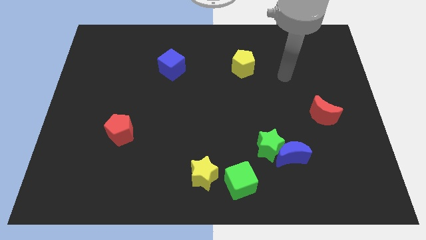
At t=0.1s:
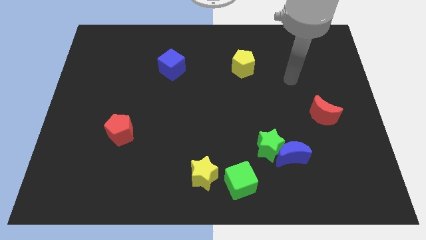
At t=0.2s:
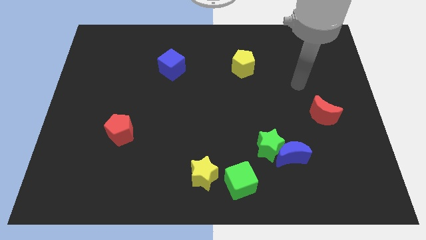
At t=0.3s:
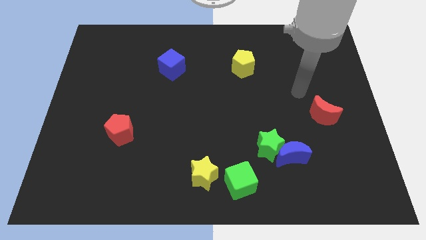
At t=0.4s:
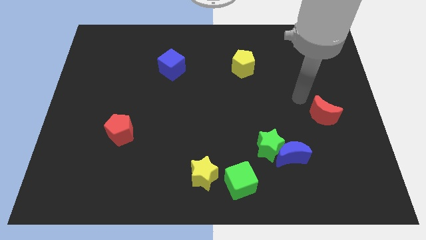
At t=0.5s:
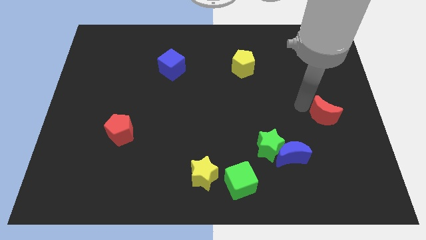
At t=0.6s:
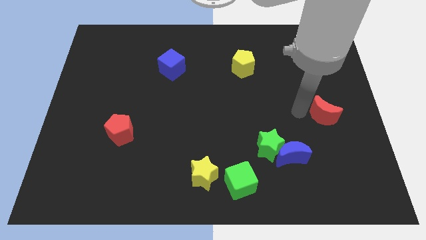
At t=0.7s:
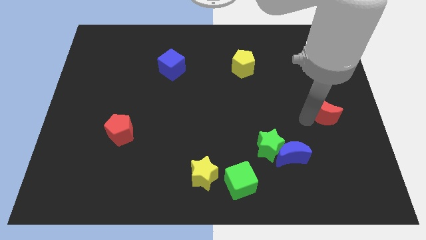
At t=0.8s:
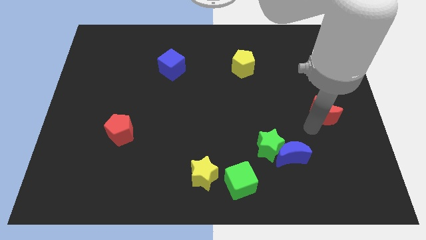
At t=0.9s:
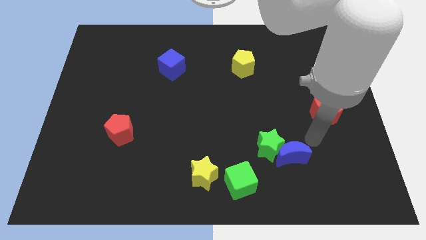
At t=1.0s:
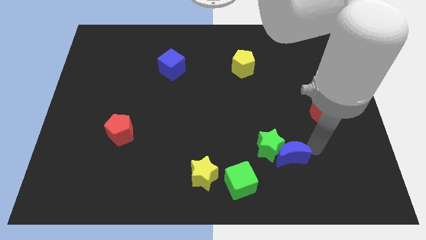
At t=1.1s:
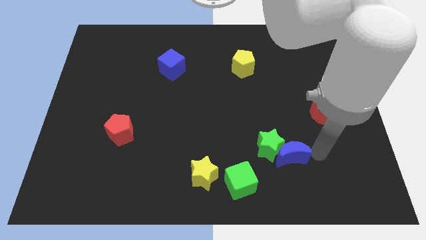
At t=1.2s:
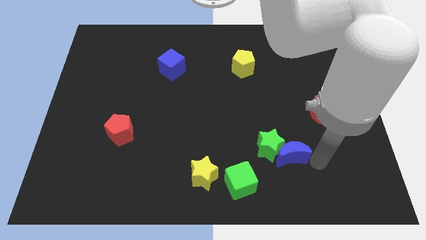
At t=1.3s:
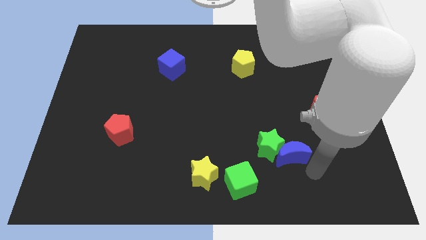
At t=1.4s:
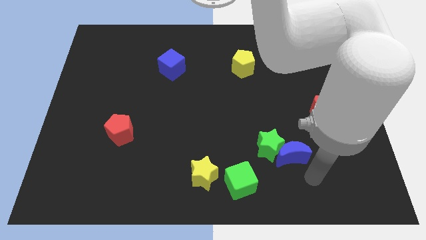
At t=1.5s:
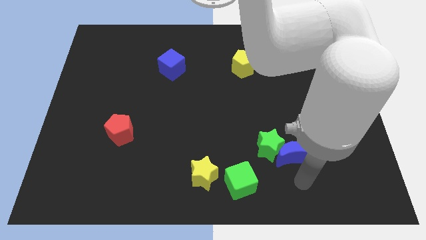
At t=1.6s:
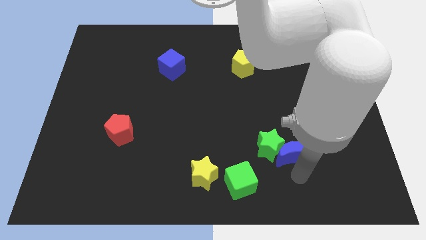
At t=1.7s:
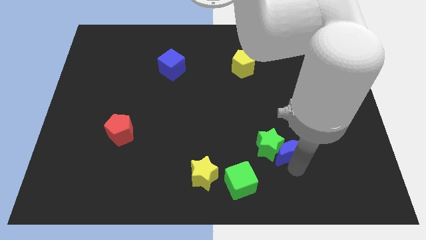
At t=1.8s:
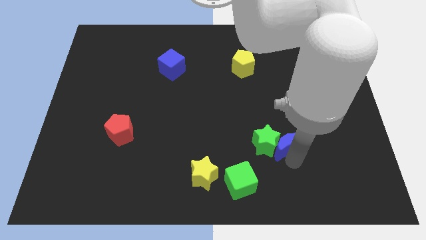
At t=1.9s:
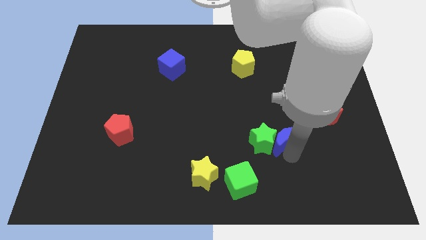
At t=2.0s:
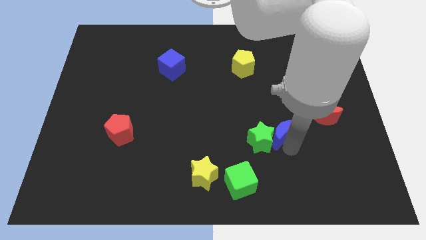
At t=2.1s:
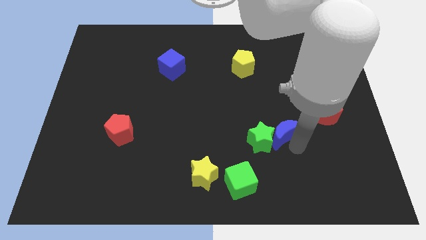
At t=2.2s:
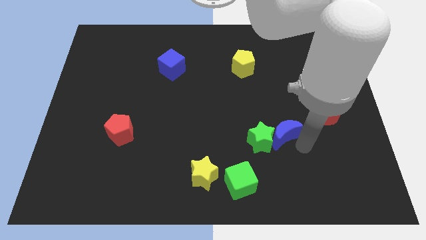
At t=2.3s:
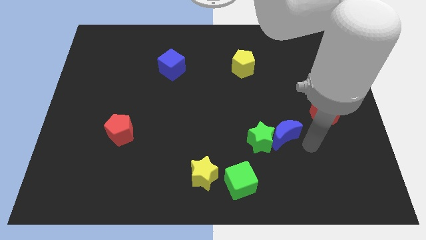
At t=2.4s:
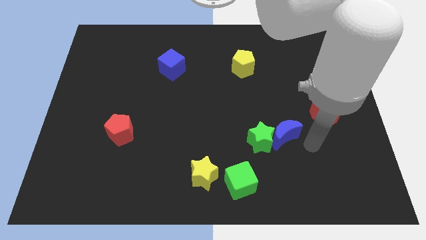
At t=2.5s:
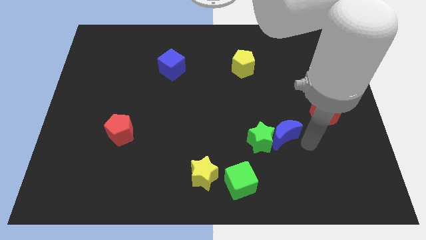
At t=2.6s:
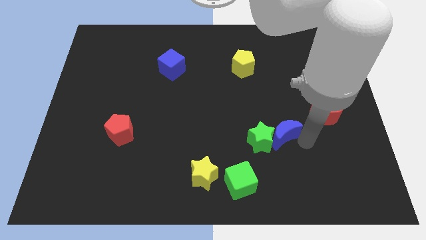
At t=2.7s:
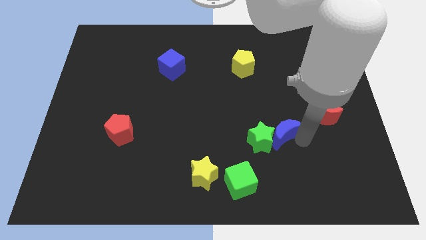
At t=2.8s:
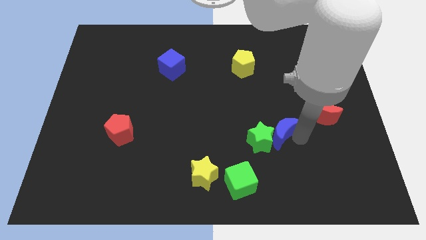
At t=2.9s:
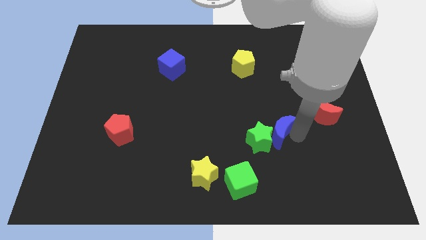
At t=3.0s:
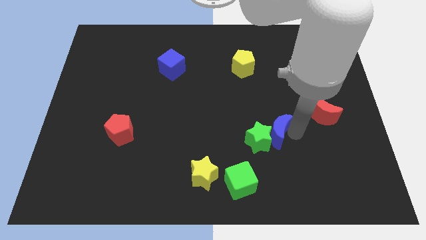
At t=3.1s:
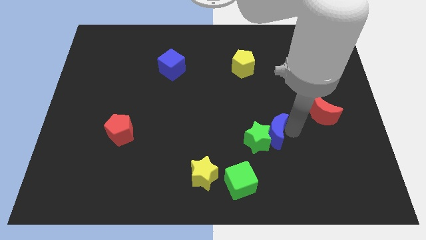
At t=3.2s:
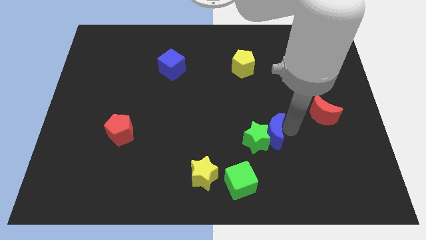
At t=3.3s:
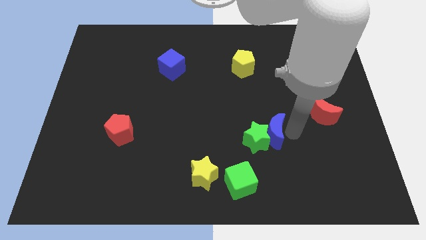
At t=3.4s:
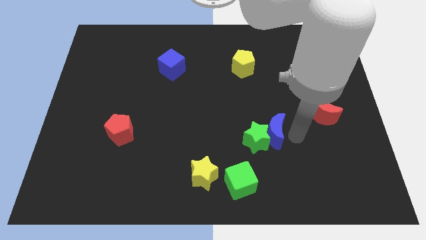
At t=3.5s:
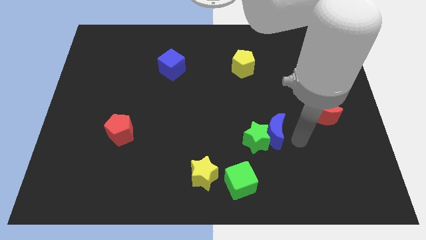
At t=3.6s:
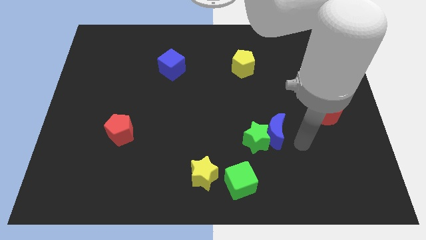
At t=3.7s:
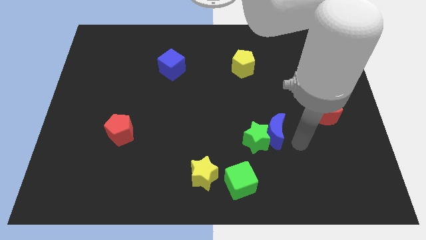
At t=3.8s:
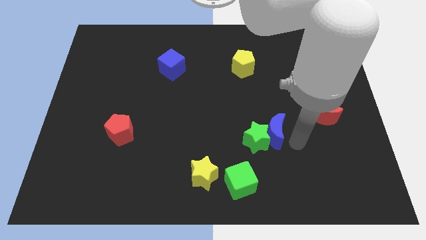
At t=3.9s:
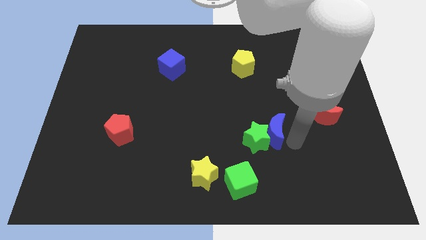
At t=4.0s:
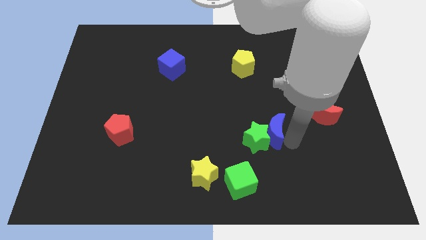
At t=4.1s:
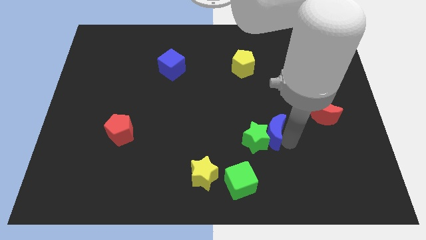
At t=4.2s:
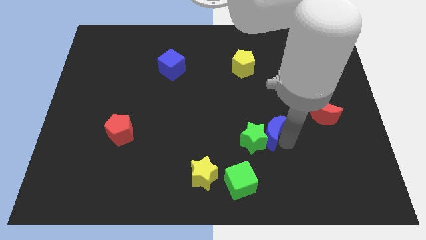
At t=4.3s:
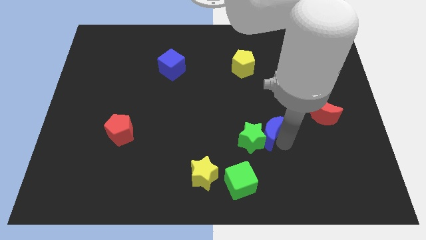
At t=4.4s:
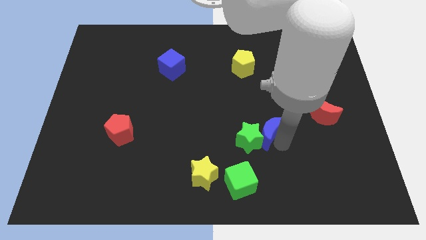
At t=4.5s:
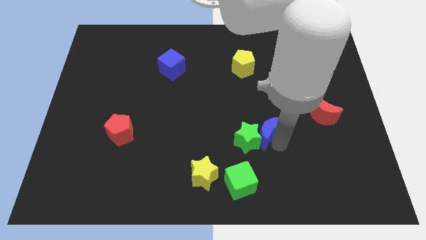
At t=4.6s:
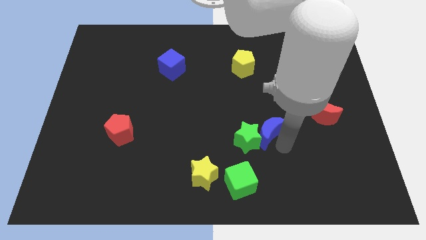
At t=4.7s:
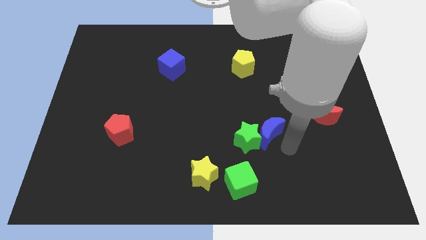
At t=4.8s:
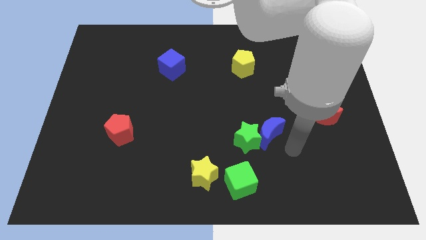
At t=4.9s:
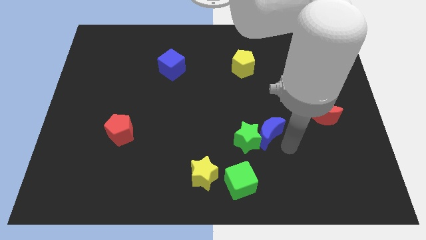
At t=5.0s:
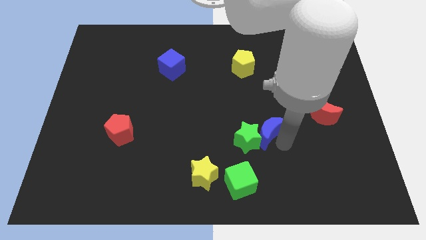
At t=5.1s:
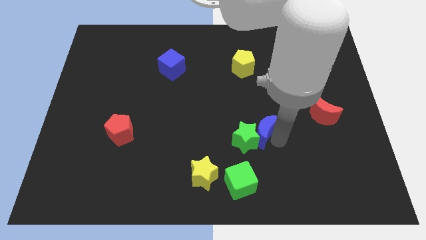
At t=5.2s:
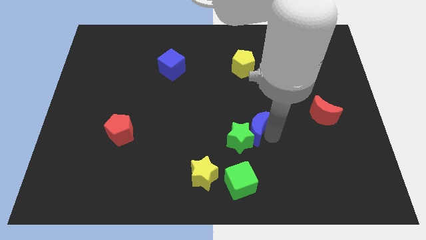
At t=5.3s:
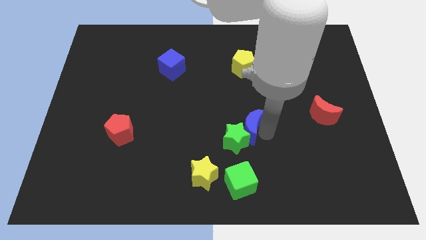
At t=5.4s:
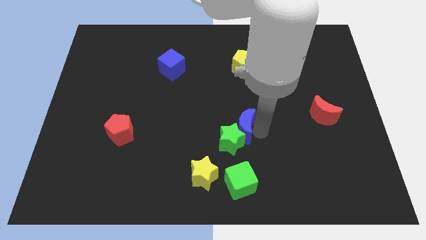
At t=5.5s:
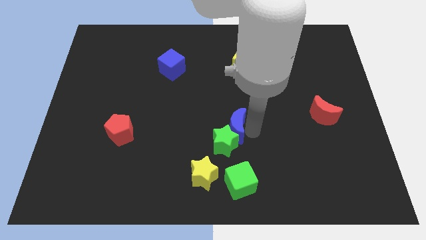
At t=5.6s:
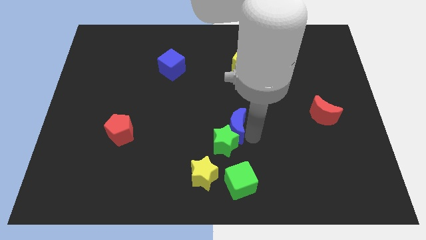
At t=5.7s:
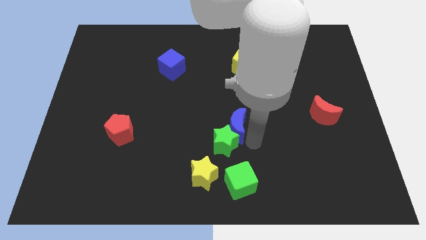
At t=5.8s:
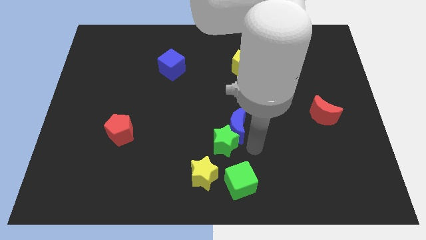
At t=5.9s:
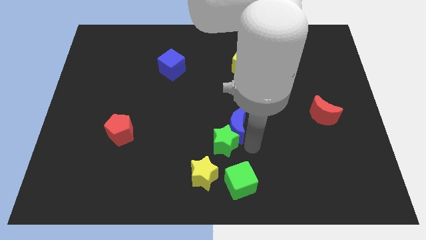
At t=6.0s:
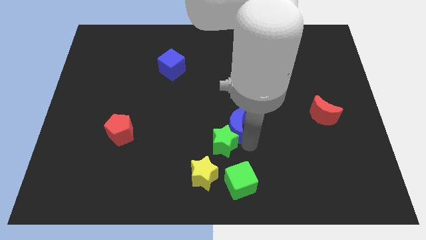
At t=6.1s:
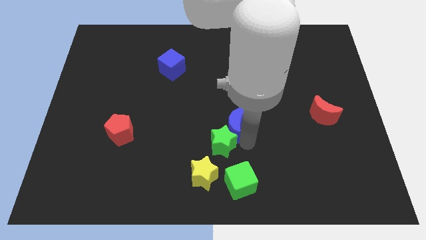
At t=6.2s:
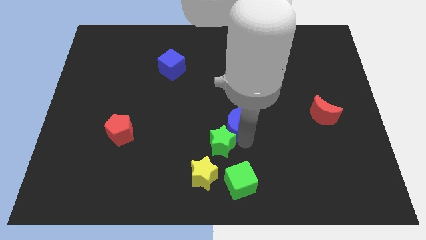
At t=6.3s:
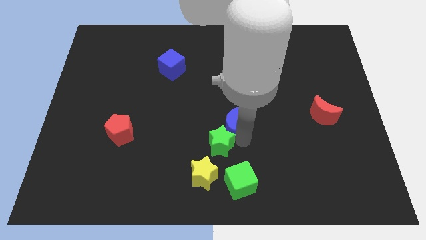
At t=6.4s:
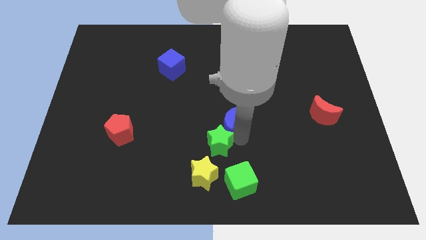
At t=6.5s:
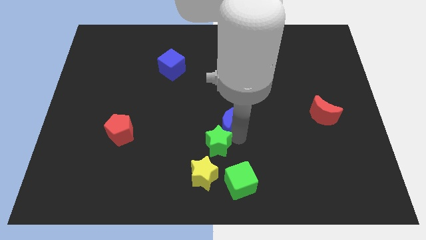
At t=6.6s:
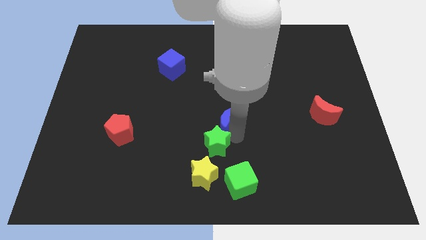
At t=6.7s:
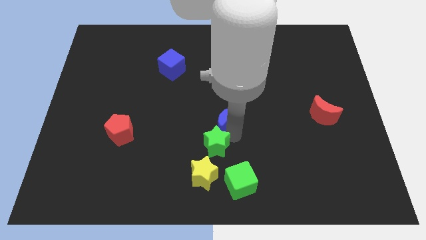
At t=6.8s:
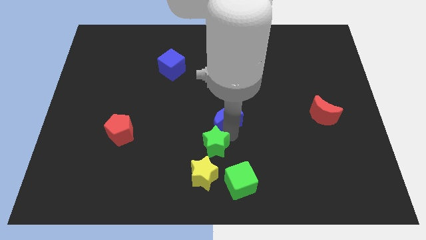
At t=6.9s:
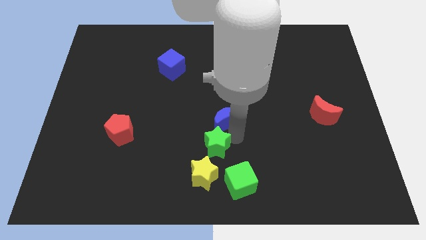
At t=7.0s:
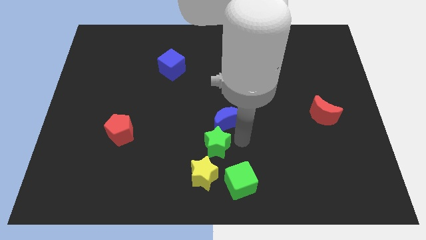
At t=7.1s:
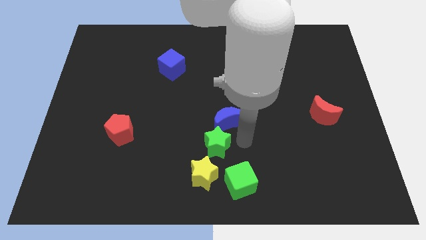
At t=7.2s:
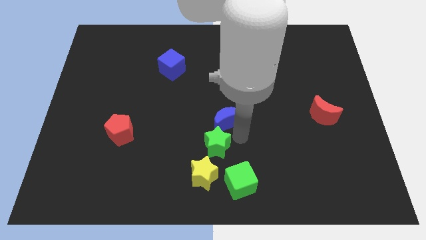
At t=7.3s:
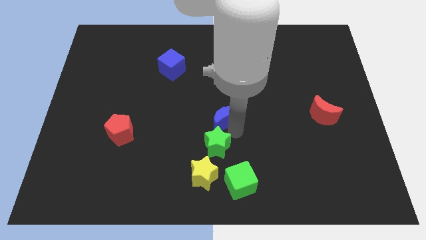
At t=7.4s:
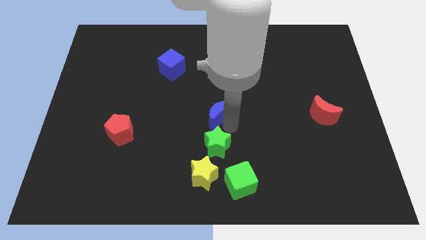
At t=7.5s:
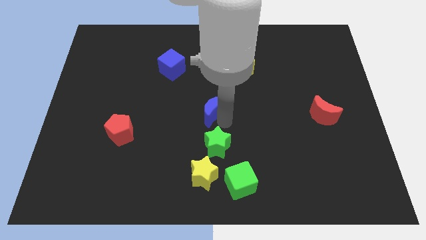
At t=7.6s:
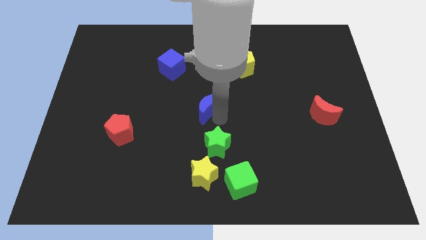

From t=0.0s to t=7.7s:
slide the blue moon up and then to the left

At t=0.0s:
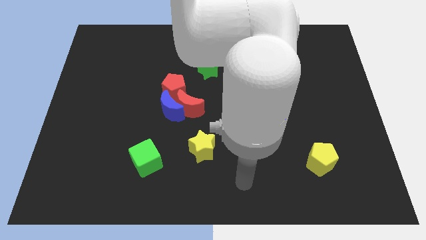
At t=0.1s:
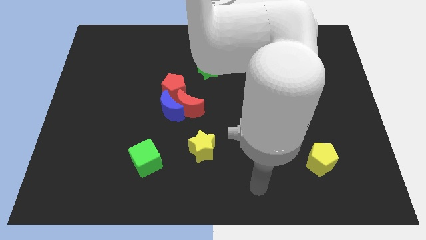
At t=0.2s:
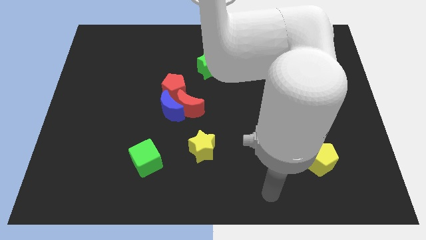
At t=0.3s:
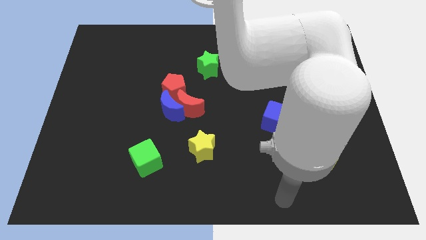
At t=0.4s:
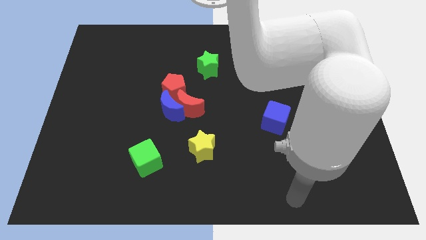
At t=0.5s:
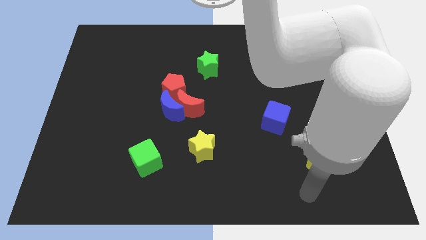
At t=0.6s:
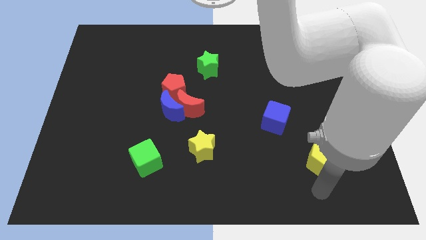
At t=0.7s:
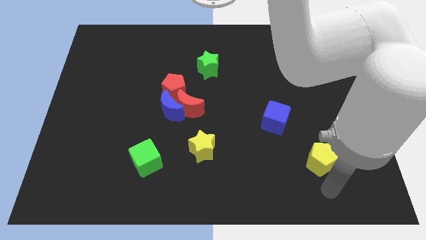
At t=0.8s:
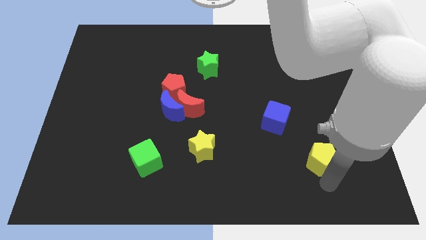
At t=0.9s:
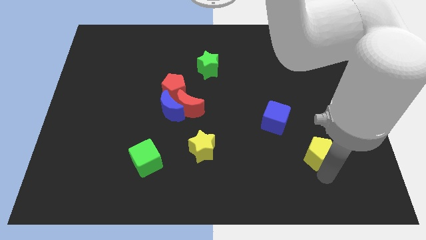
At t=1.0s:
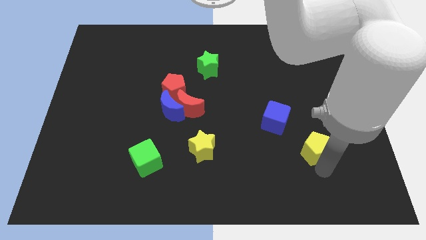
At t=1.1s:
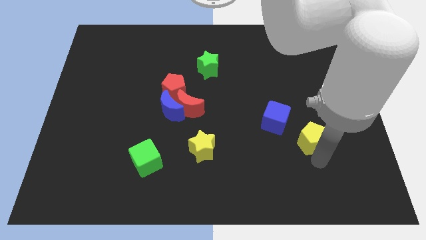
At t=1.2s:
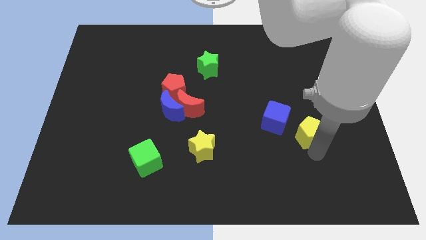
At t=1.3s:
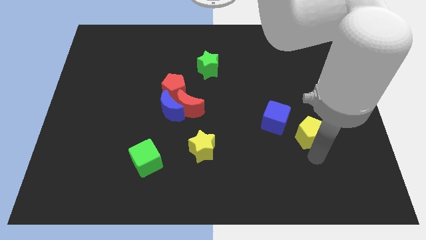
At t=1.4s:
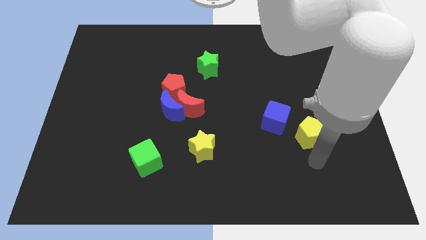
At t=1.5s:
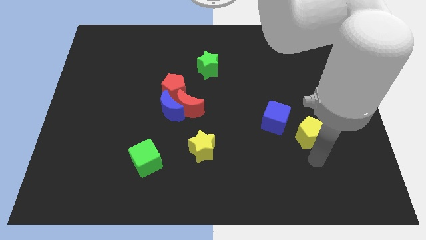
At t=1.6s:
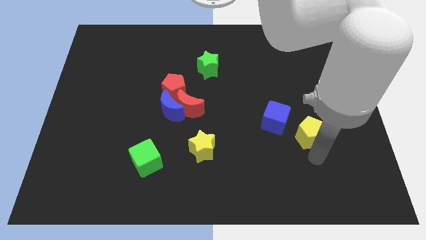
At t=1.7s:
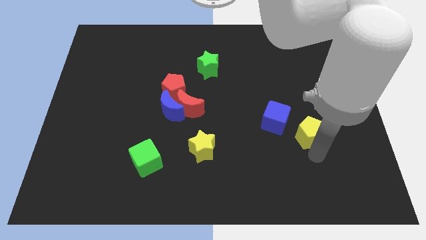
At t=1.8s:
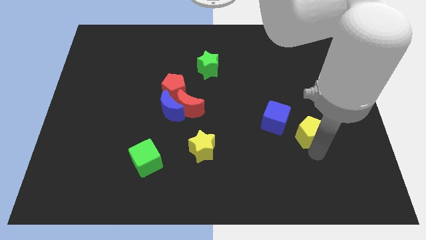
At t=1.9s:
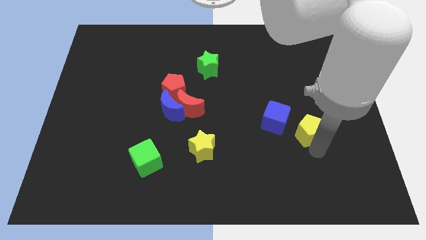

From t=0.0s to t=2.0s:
slide the yellow pentagon up a little bit
